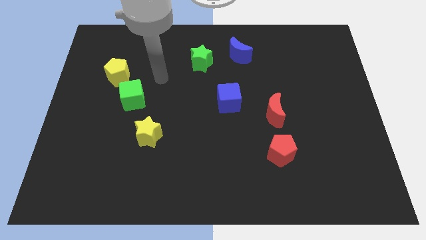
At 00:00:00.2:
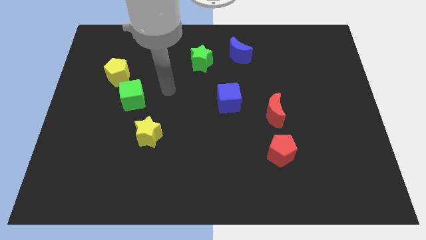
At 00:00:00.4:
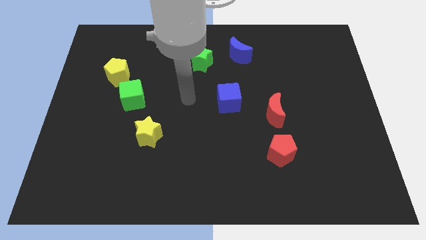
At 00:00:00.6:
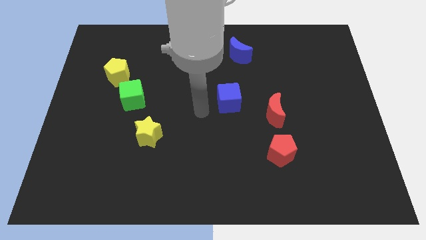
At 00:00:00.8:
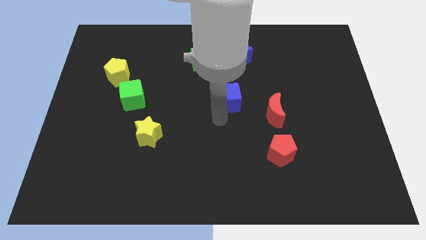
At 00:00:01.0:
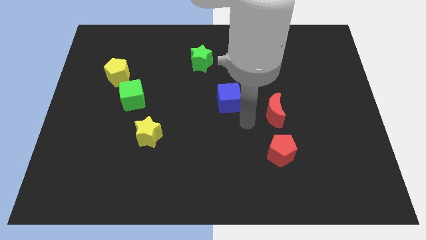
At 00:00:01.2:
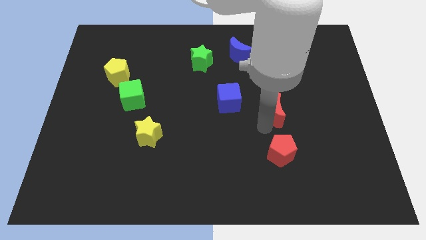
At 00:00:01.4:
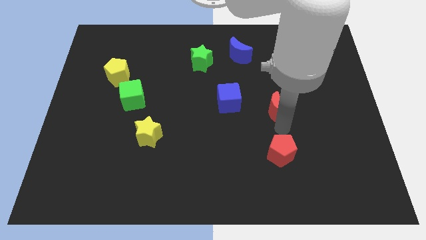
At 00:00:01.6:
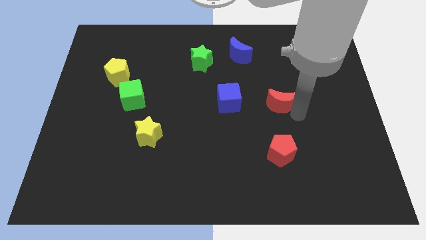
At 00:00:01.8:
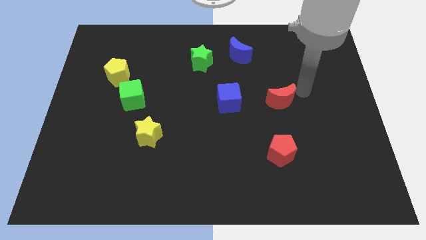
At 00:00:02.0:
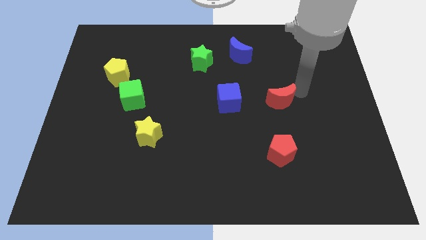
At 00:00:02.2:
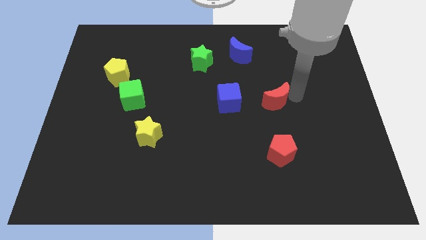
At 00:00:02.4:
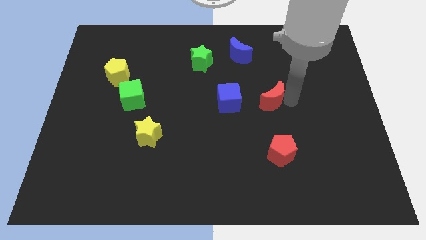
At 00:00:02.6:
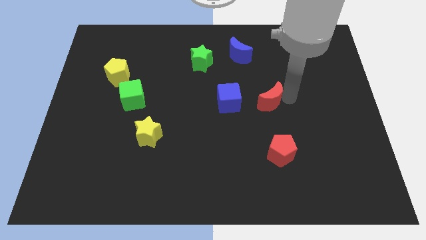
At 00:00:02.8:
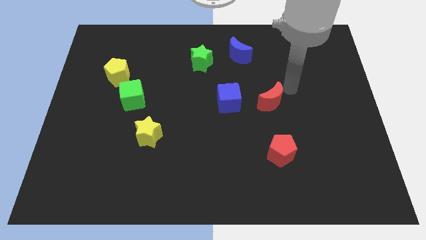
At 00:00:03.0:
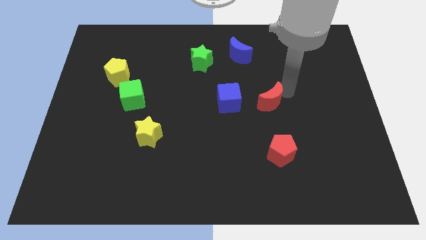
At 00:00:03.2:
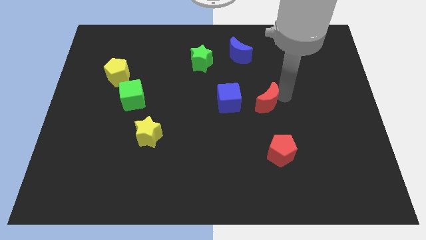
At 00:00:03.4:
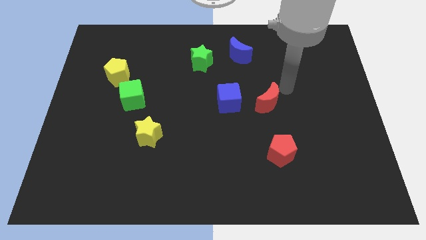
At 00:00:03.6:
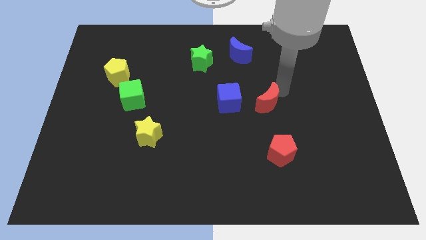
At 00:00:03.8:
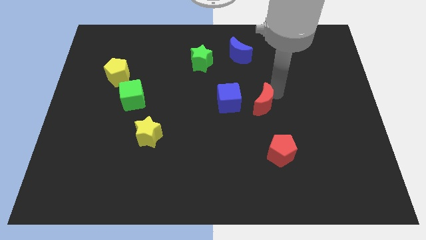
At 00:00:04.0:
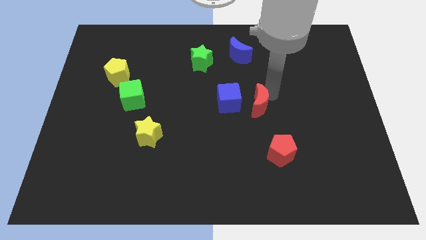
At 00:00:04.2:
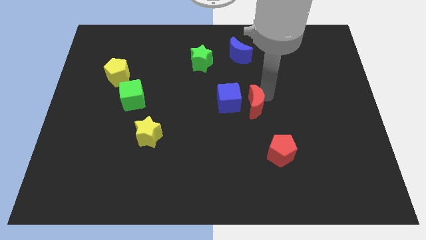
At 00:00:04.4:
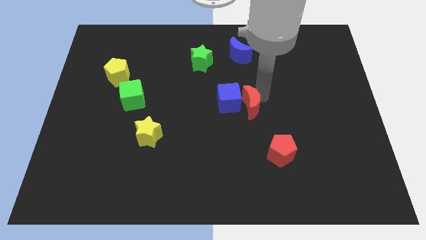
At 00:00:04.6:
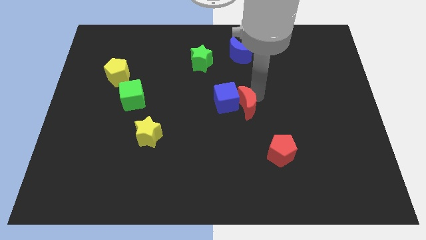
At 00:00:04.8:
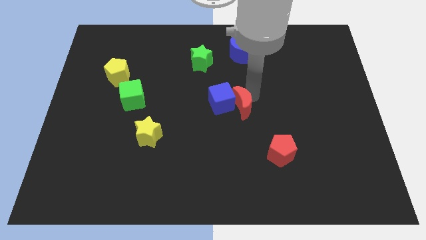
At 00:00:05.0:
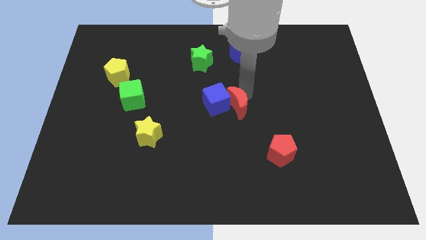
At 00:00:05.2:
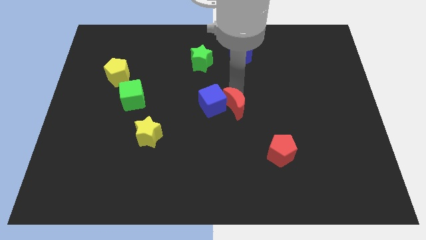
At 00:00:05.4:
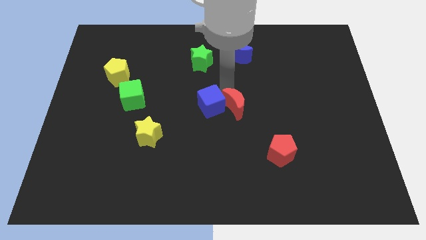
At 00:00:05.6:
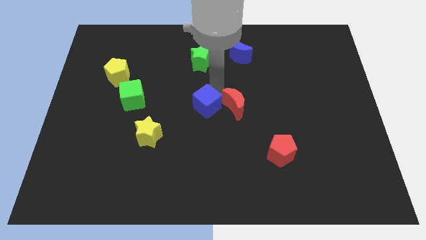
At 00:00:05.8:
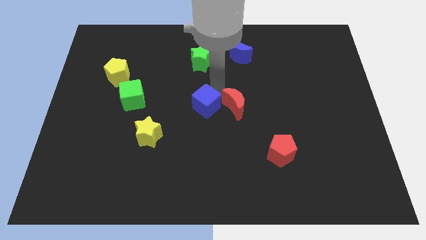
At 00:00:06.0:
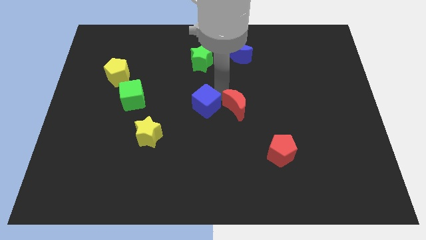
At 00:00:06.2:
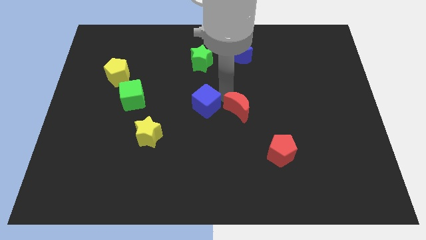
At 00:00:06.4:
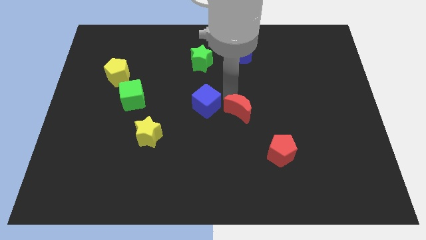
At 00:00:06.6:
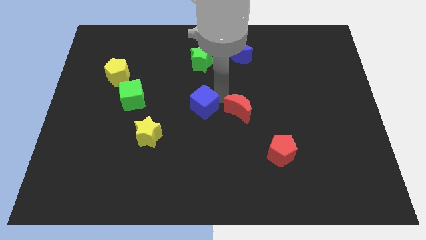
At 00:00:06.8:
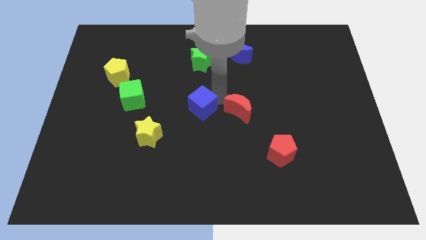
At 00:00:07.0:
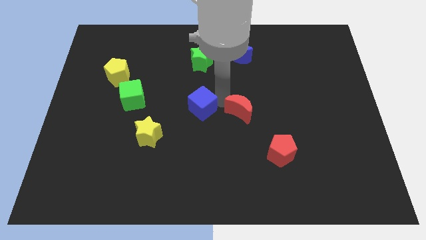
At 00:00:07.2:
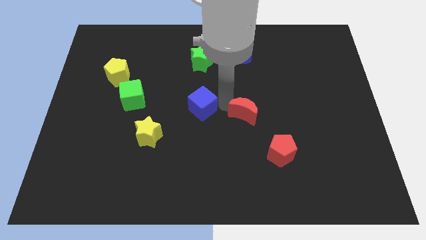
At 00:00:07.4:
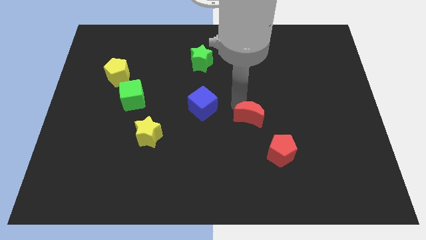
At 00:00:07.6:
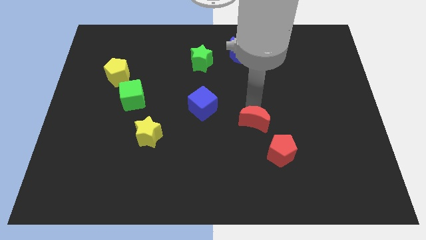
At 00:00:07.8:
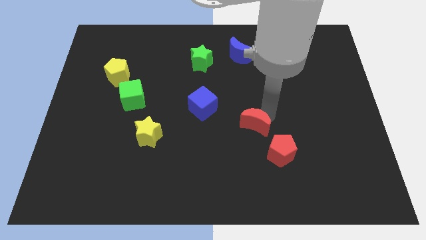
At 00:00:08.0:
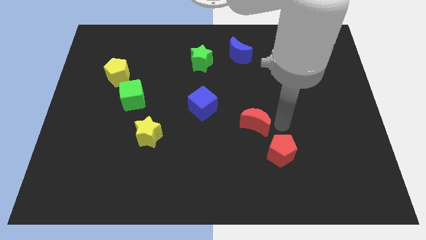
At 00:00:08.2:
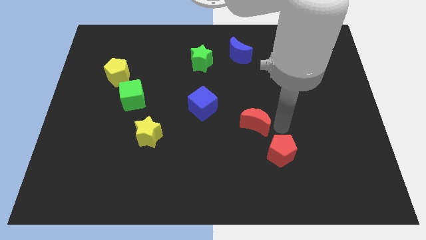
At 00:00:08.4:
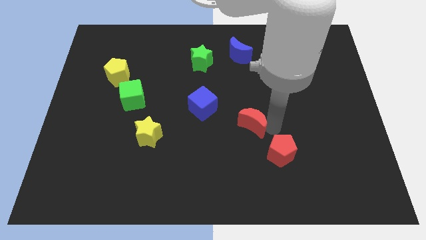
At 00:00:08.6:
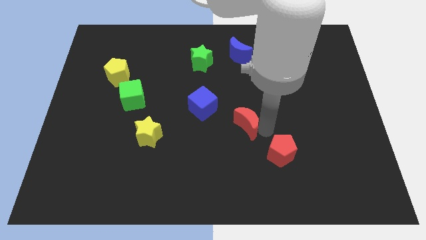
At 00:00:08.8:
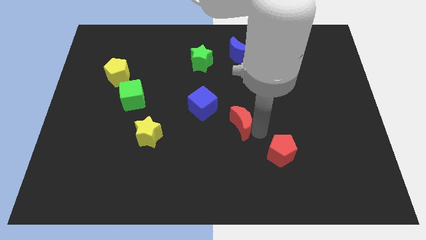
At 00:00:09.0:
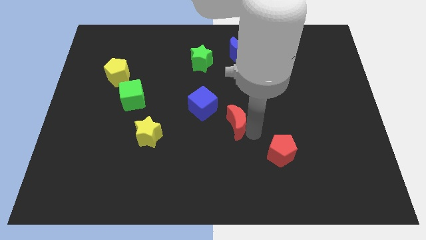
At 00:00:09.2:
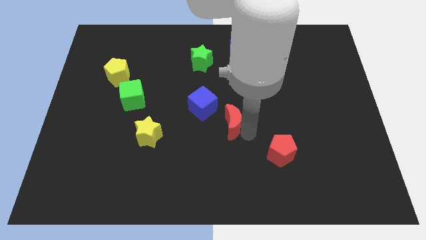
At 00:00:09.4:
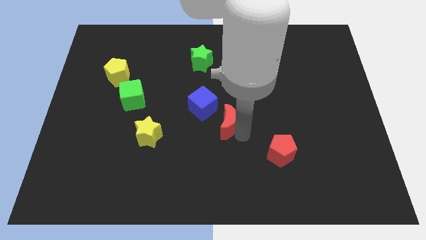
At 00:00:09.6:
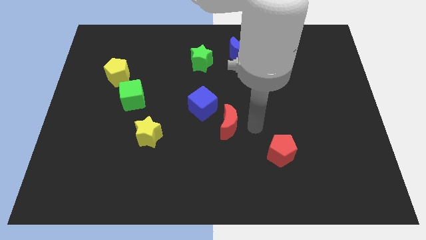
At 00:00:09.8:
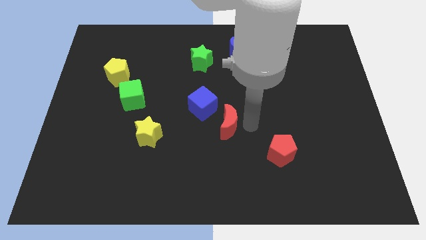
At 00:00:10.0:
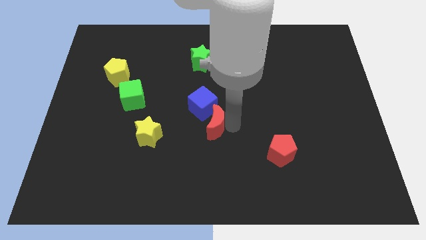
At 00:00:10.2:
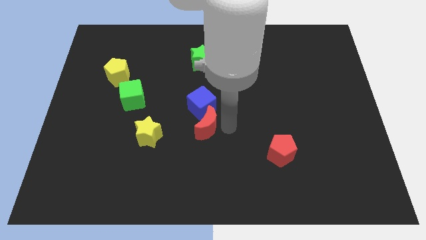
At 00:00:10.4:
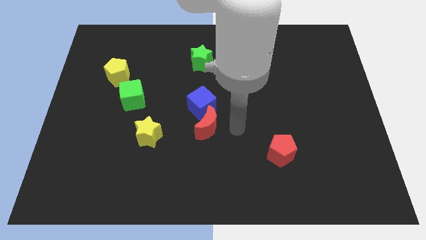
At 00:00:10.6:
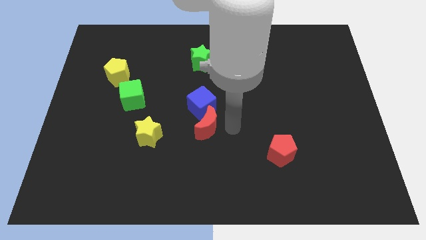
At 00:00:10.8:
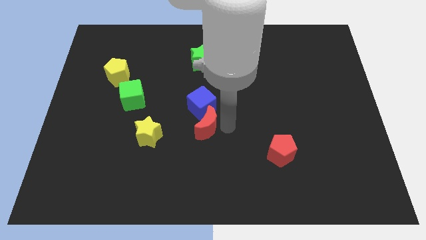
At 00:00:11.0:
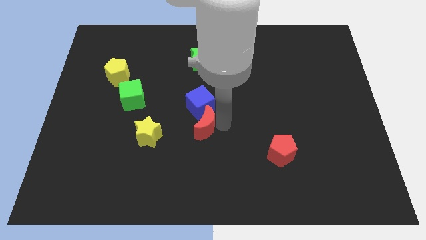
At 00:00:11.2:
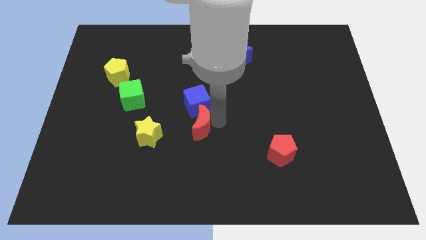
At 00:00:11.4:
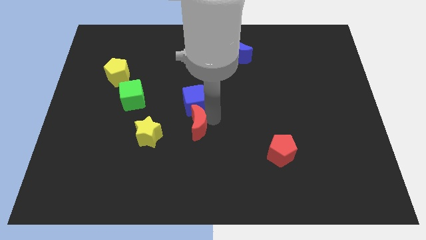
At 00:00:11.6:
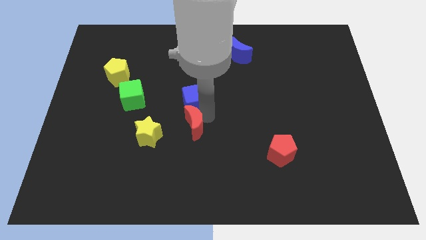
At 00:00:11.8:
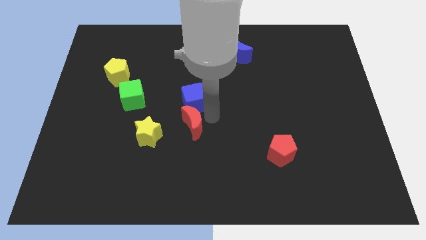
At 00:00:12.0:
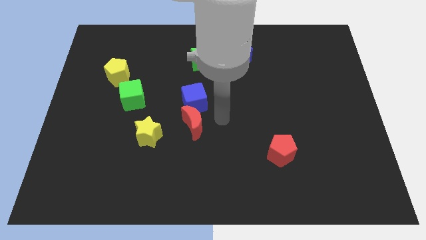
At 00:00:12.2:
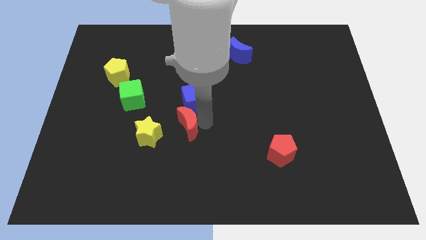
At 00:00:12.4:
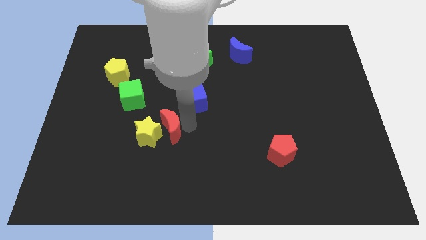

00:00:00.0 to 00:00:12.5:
push the red moon next to the yellow star

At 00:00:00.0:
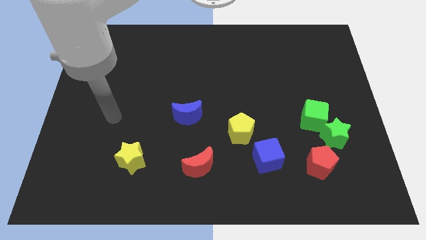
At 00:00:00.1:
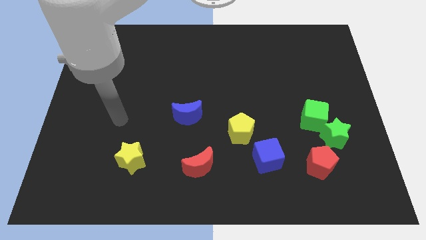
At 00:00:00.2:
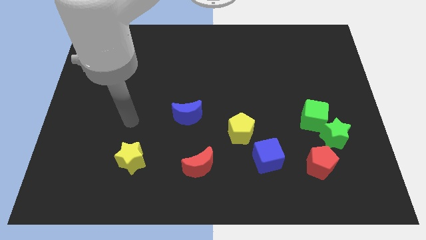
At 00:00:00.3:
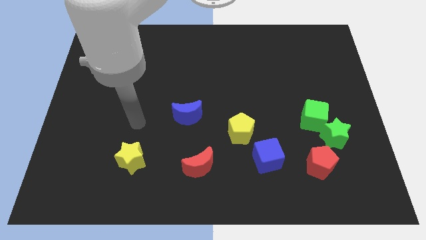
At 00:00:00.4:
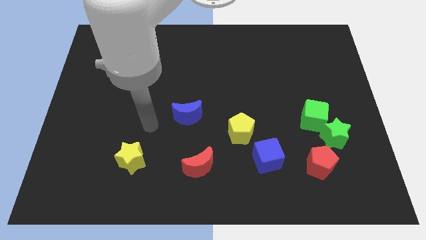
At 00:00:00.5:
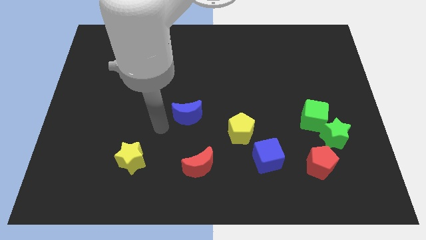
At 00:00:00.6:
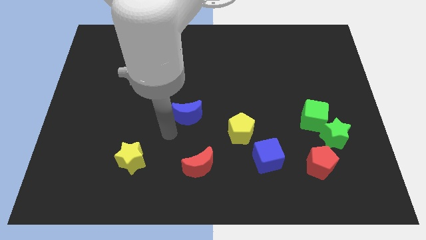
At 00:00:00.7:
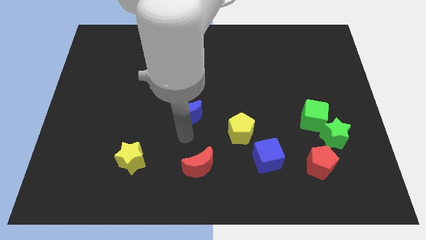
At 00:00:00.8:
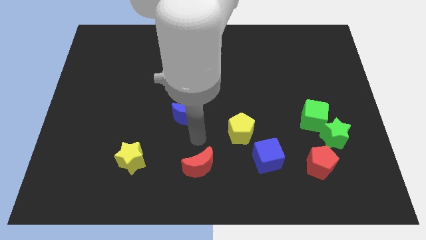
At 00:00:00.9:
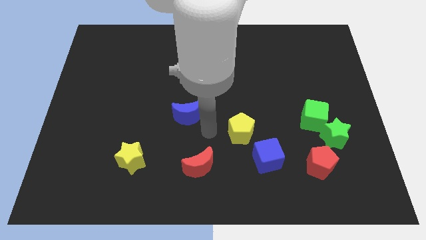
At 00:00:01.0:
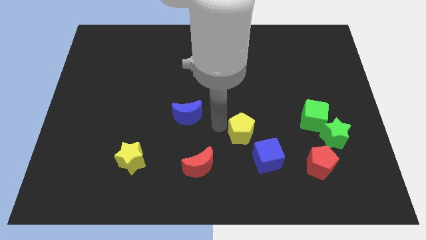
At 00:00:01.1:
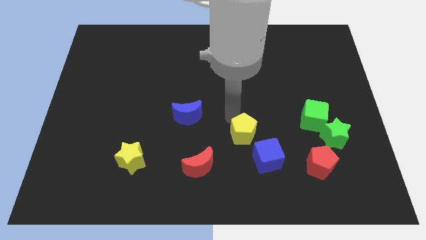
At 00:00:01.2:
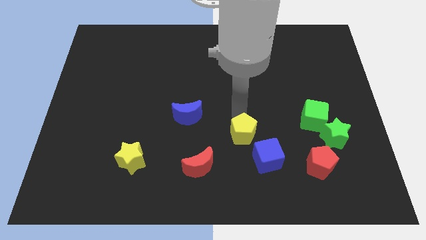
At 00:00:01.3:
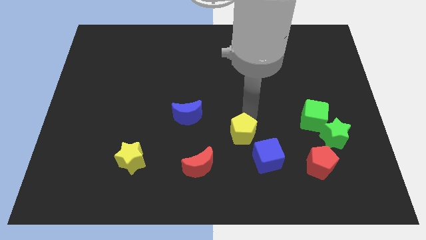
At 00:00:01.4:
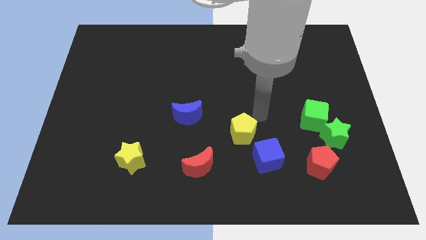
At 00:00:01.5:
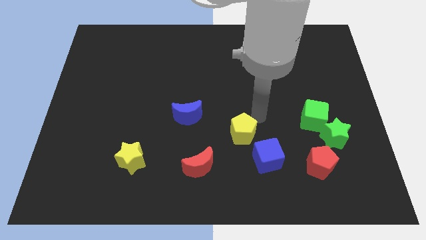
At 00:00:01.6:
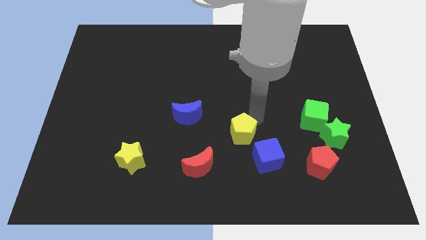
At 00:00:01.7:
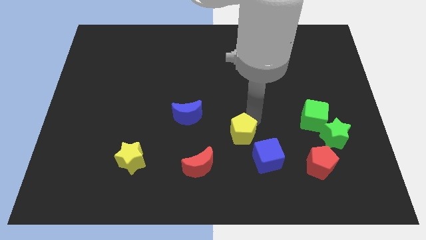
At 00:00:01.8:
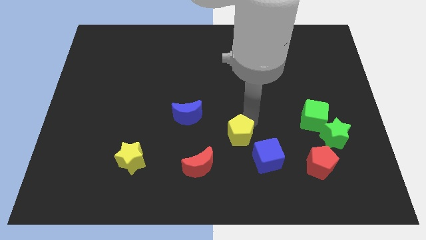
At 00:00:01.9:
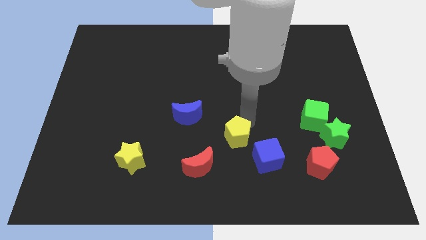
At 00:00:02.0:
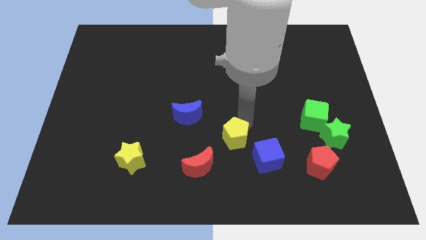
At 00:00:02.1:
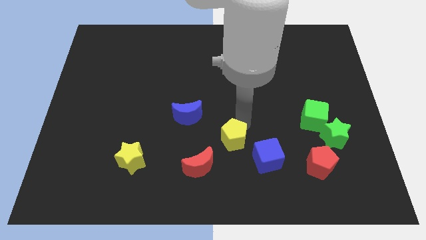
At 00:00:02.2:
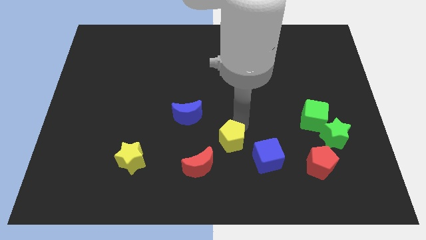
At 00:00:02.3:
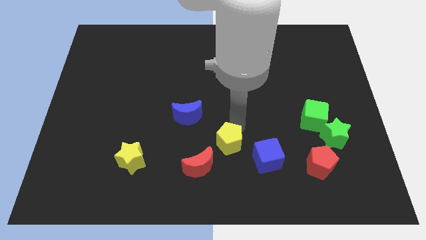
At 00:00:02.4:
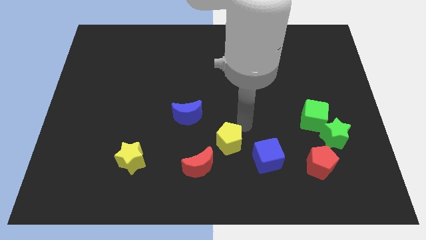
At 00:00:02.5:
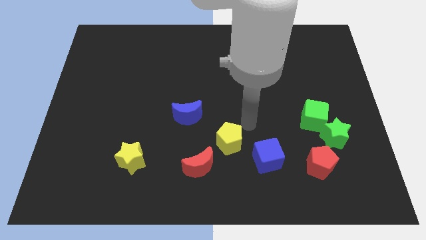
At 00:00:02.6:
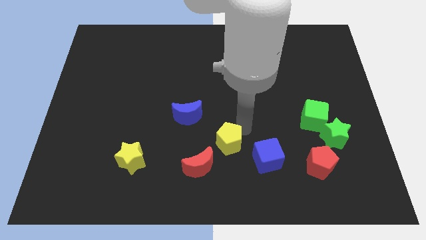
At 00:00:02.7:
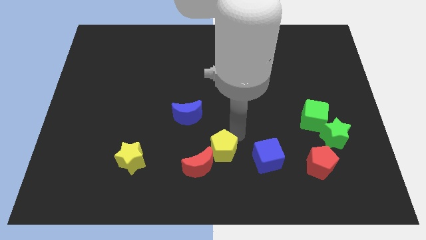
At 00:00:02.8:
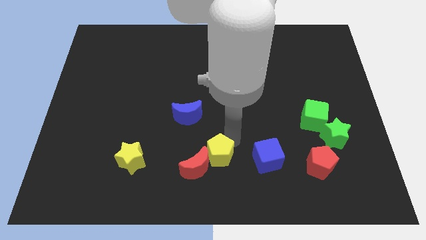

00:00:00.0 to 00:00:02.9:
push the yellow pentagon close to the red moon
